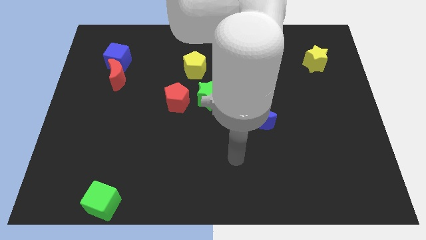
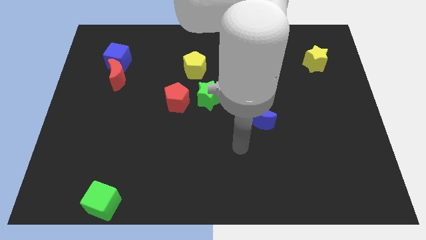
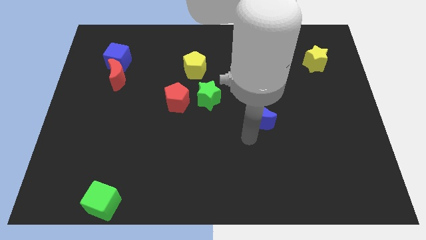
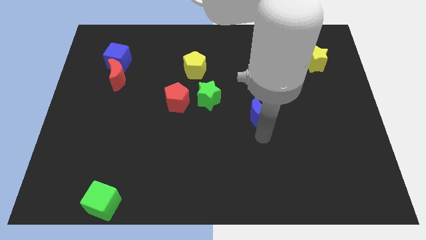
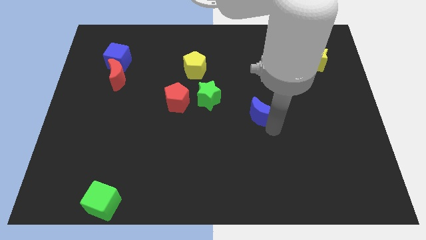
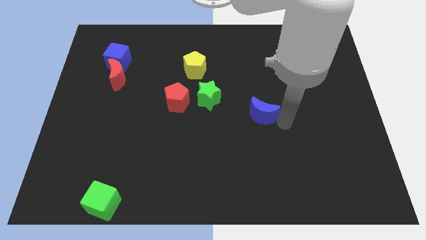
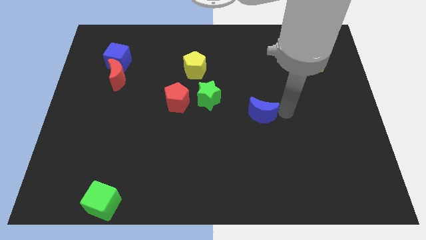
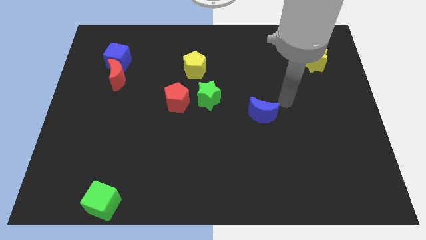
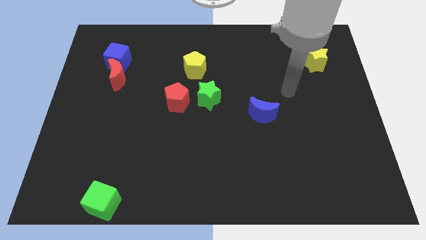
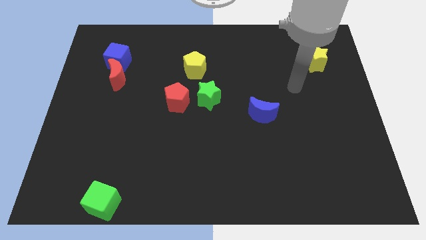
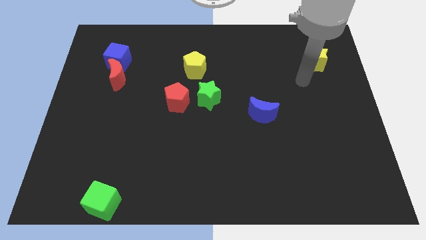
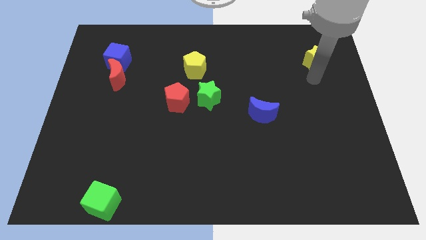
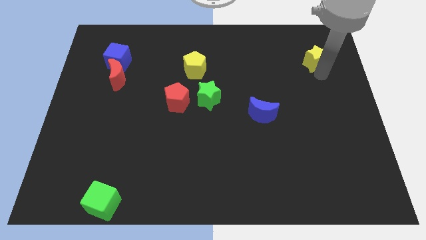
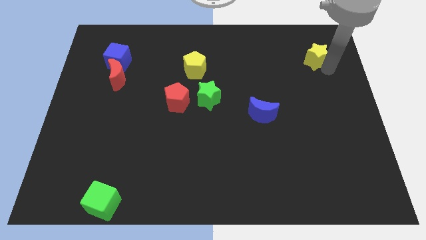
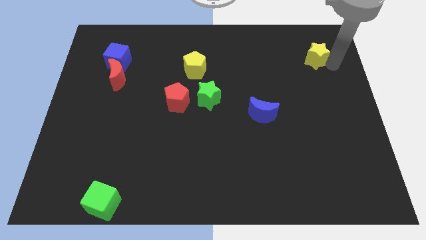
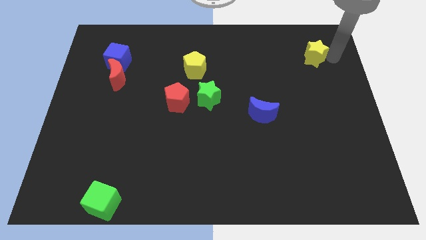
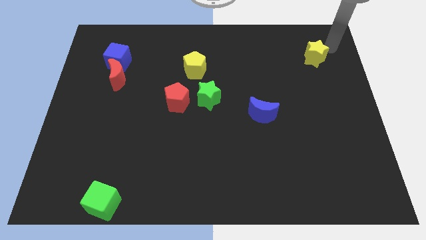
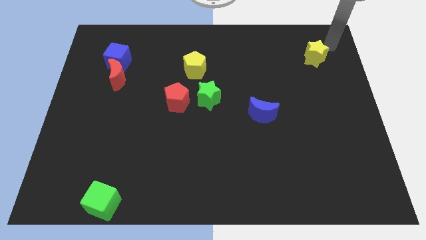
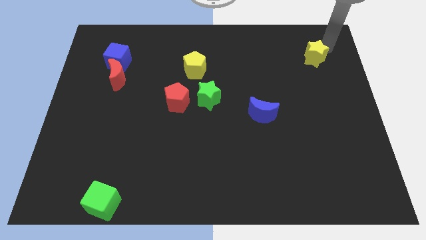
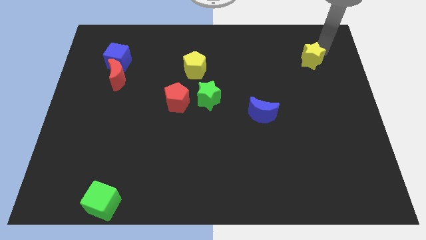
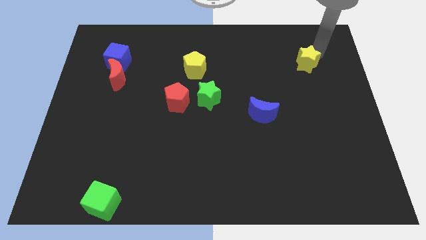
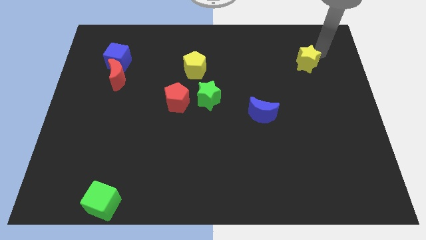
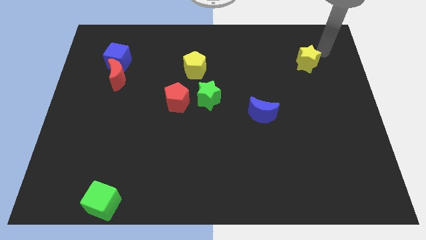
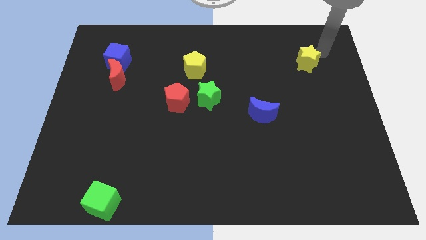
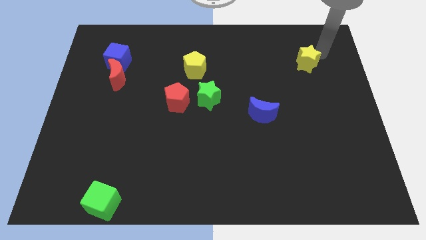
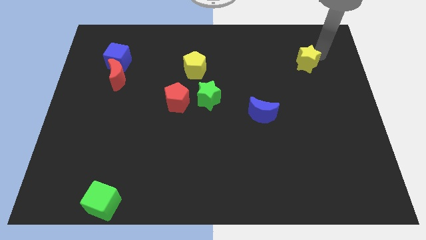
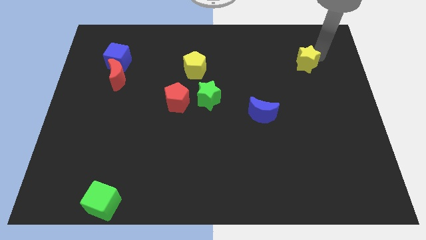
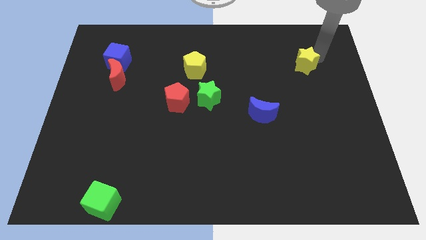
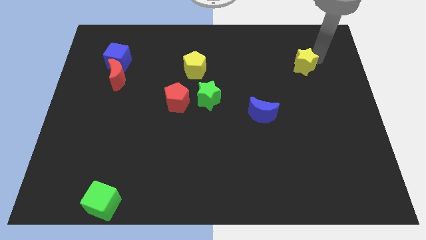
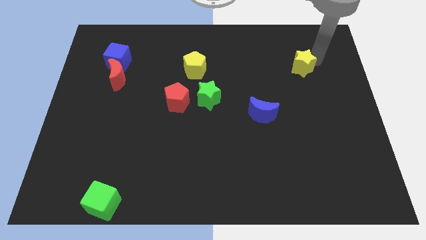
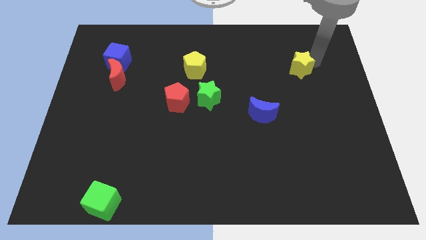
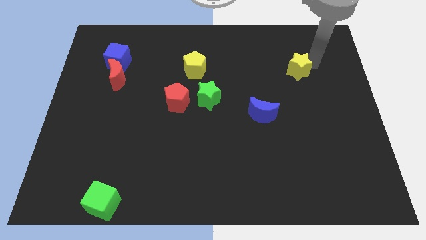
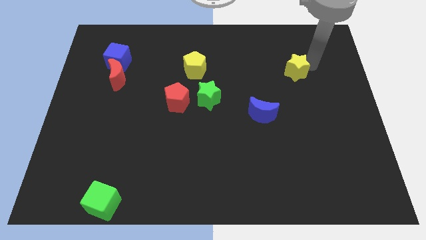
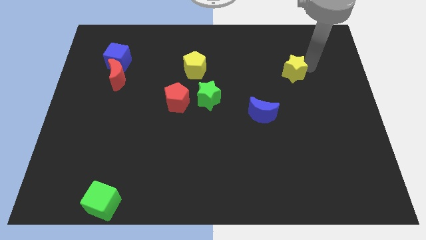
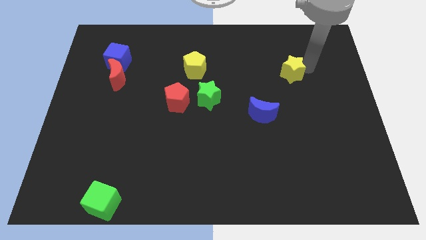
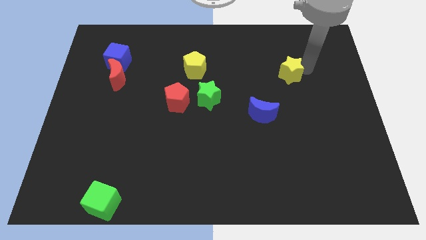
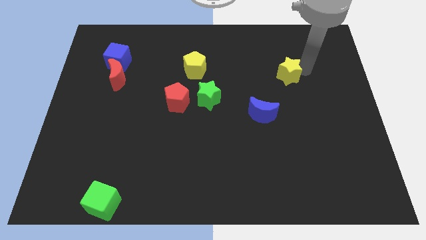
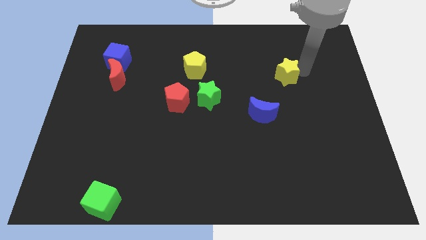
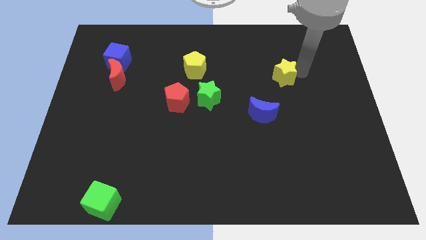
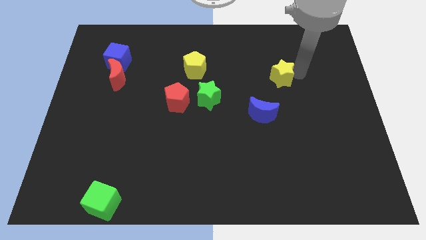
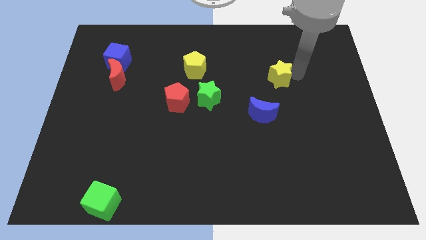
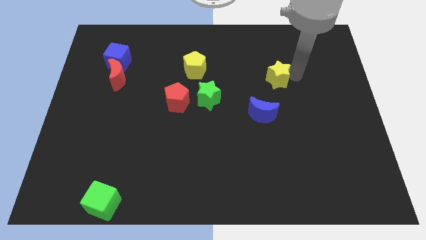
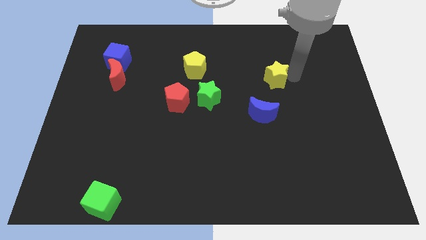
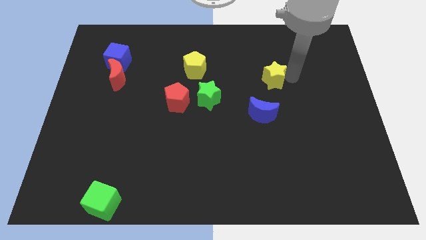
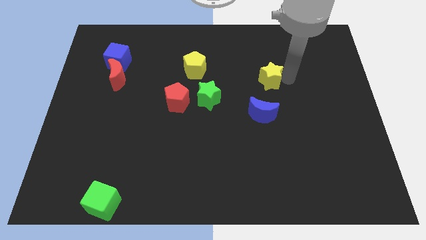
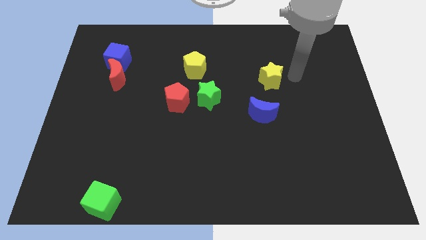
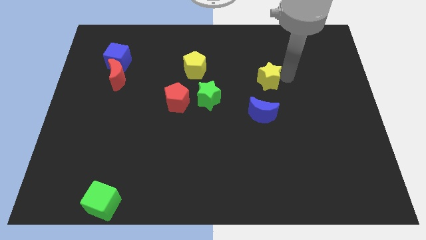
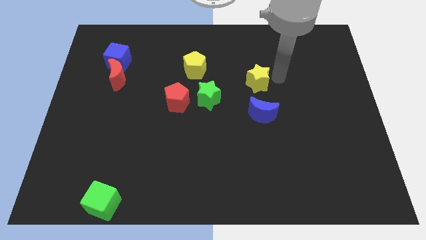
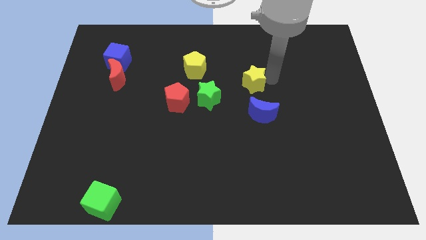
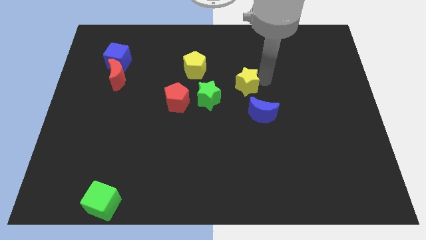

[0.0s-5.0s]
put the yellow star to the top right of the green star

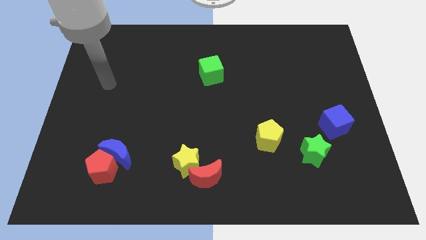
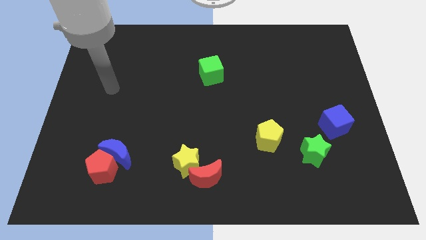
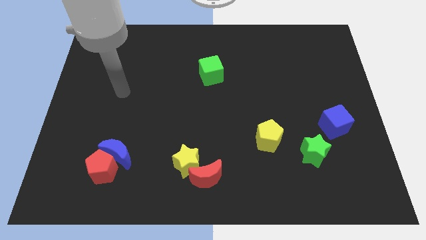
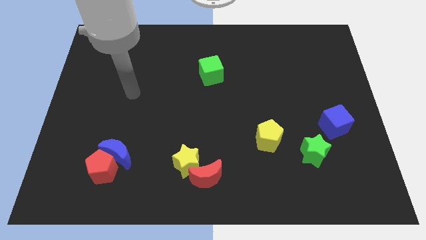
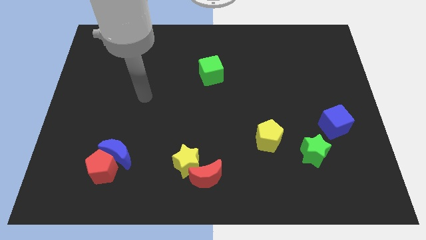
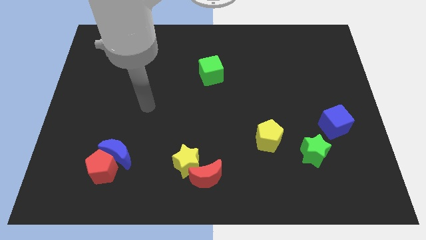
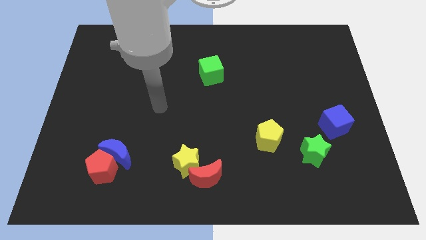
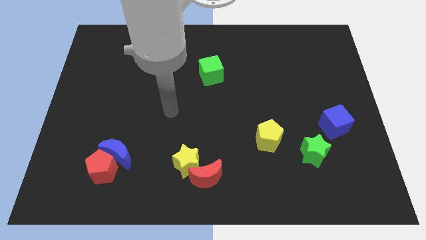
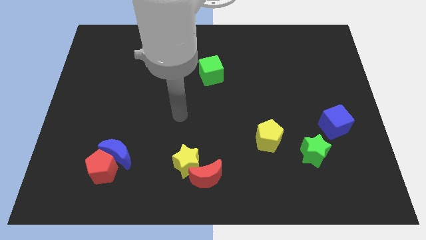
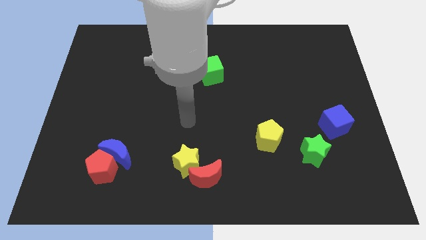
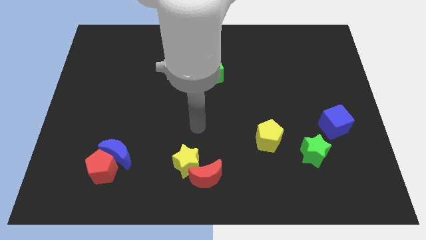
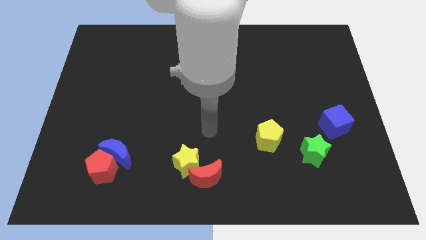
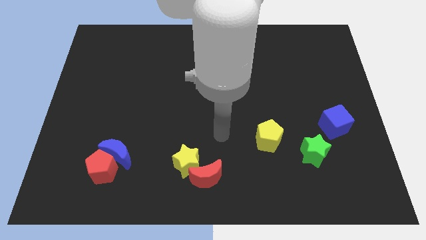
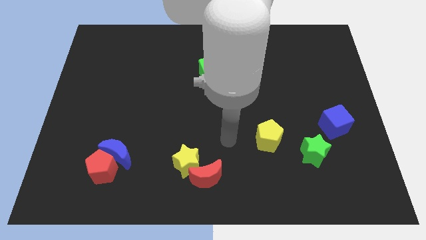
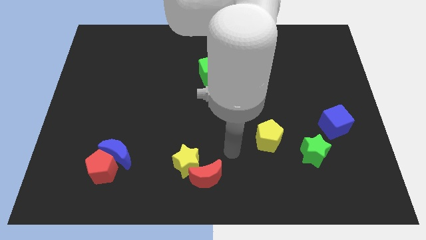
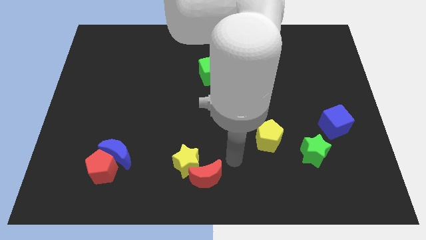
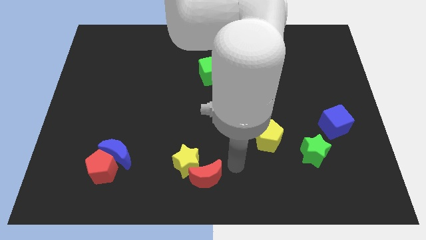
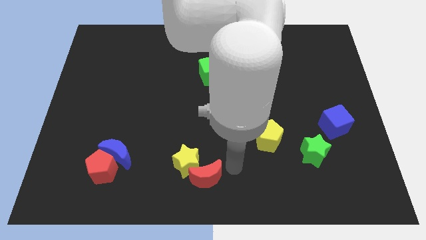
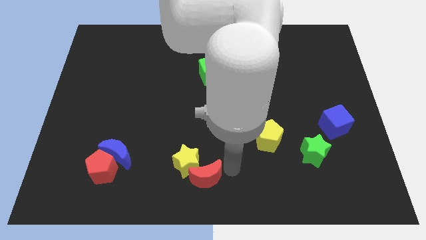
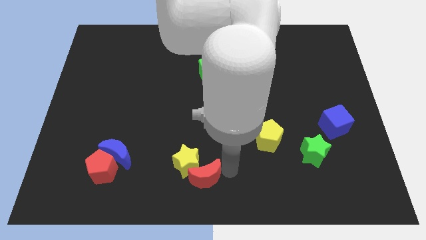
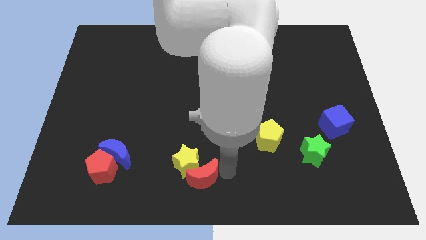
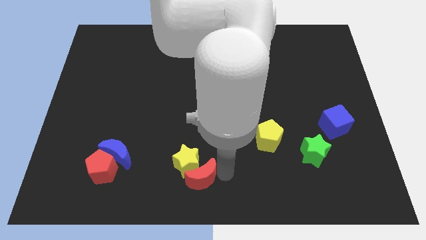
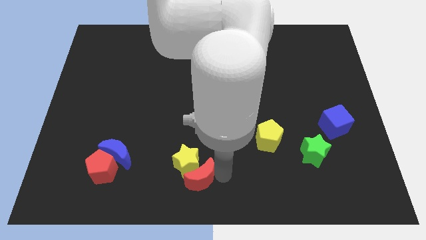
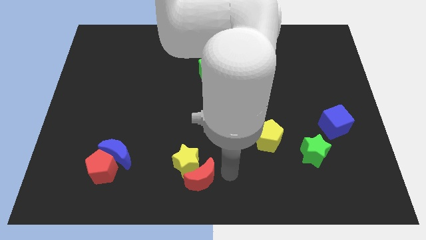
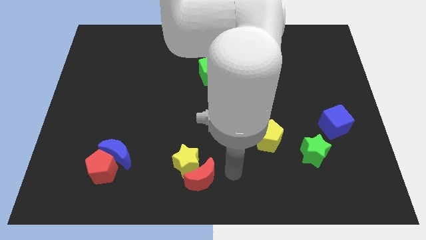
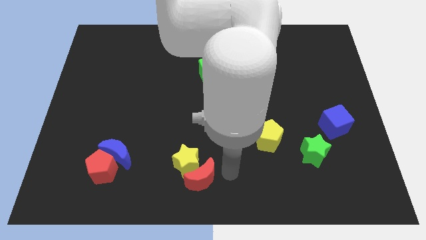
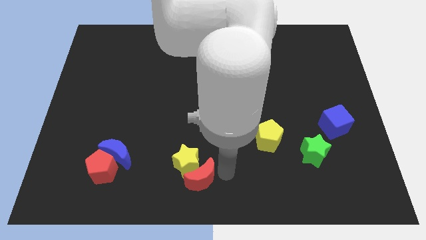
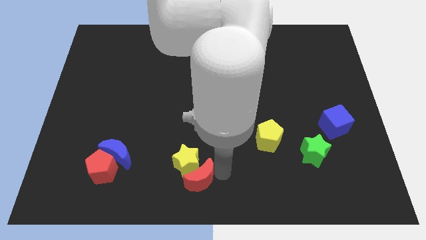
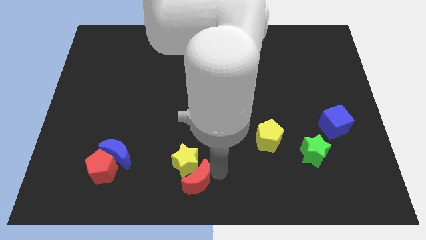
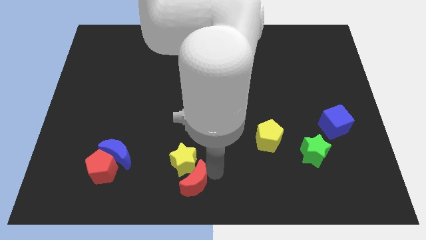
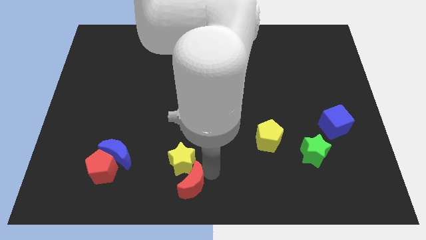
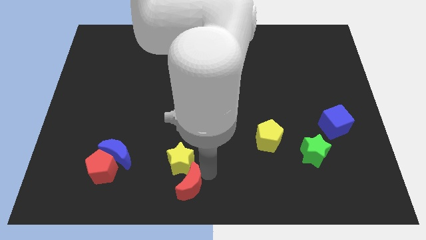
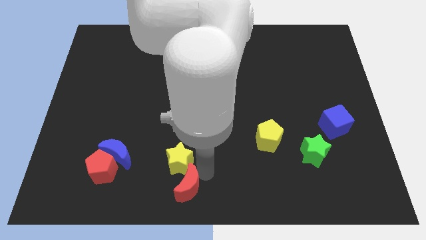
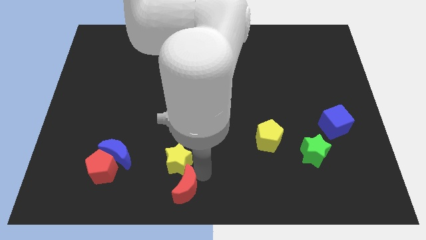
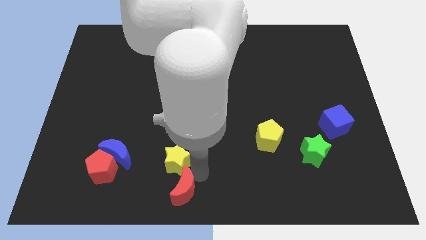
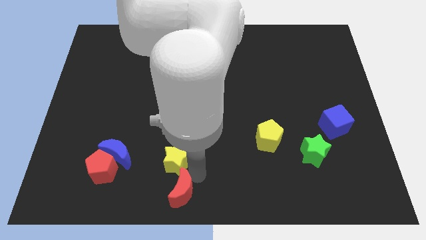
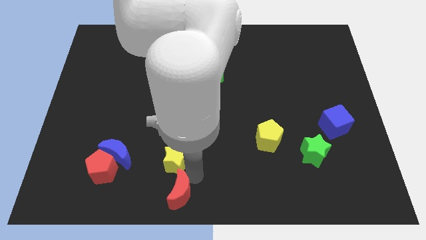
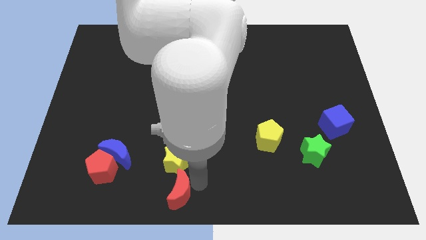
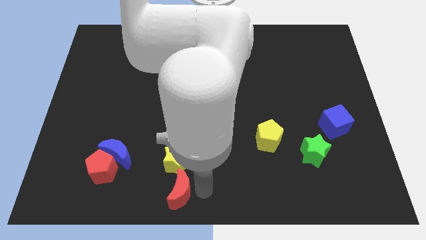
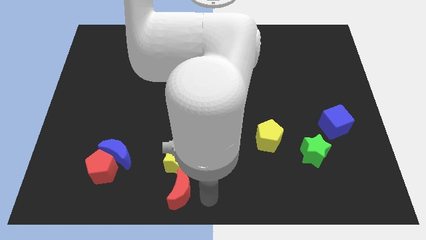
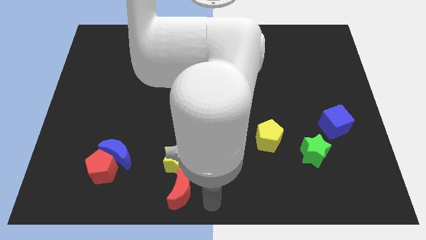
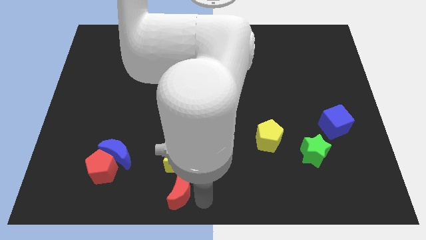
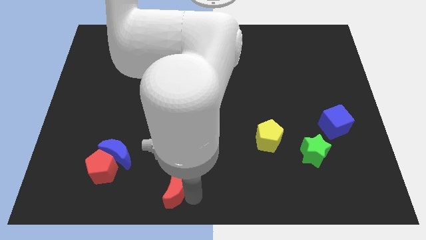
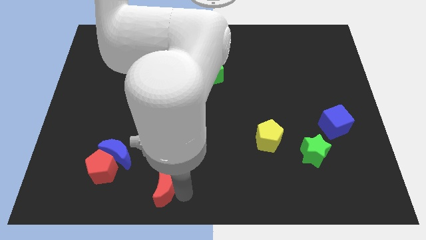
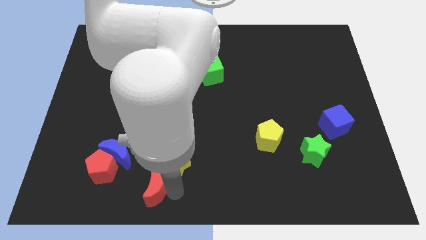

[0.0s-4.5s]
put the red moon diagonally down and to the right of the blue moon
